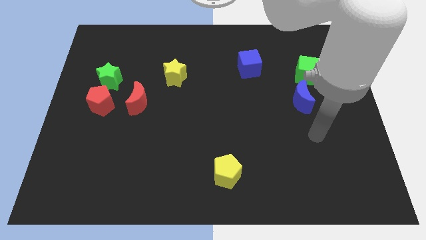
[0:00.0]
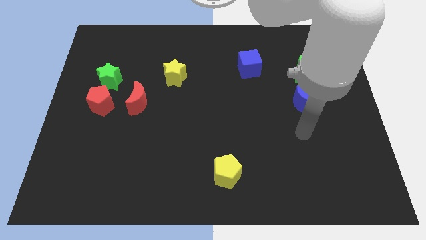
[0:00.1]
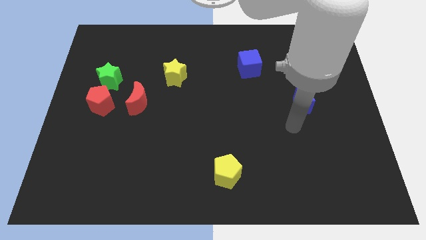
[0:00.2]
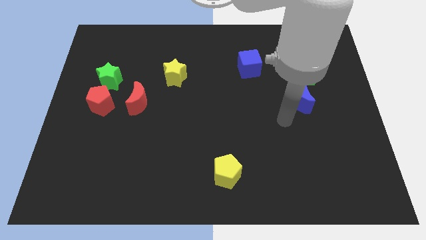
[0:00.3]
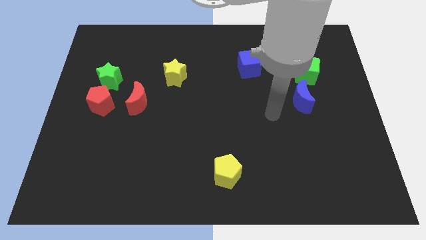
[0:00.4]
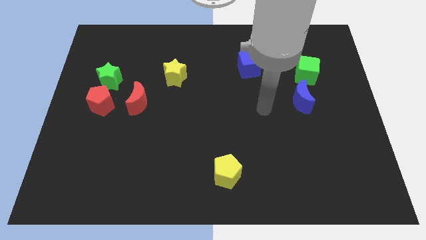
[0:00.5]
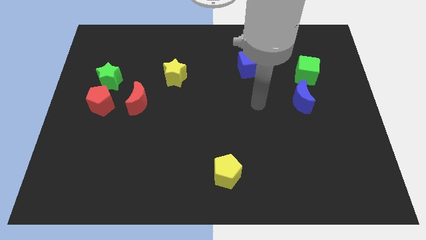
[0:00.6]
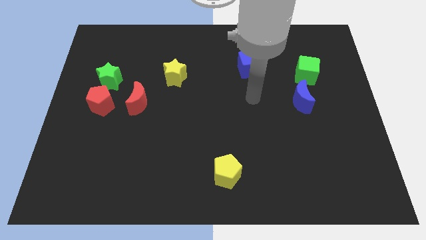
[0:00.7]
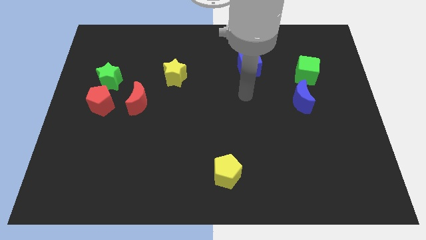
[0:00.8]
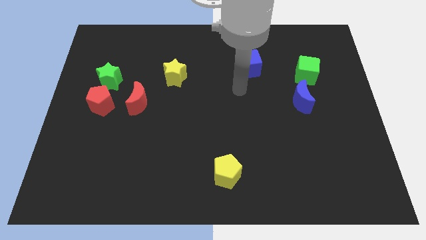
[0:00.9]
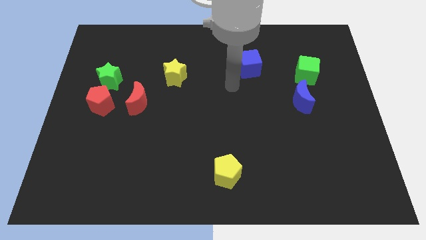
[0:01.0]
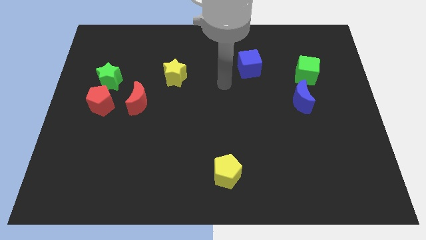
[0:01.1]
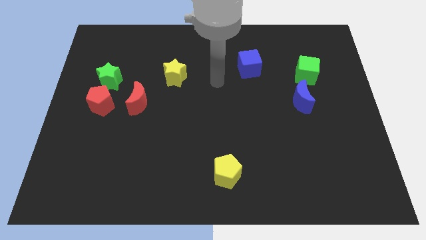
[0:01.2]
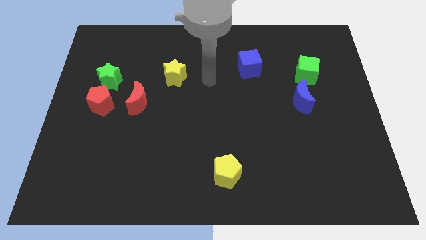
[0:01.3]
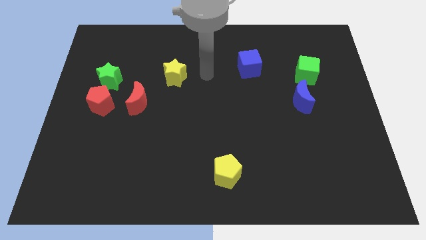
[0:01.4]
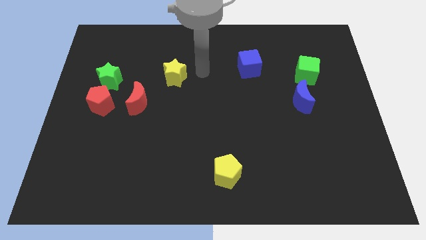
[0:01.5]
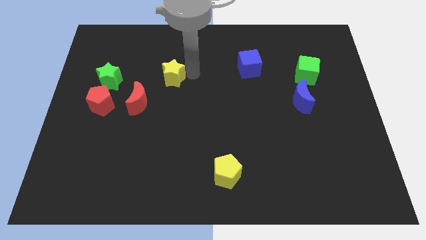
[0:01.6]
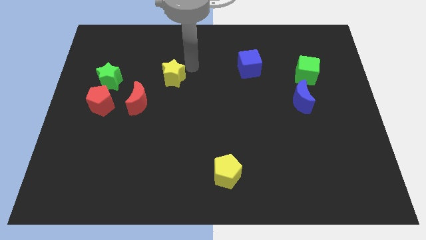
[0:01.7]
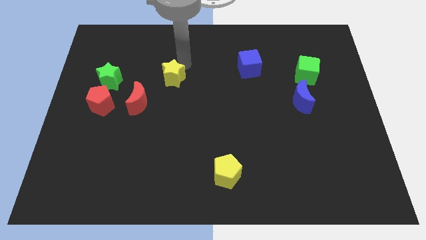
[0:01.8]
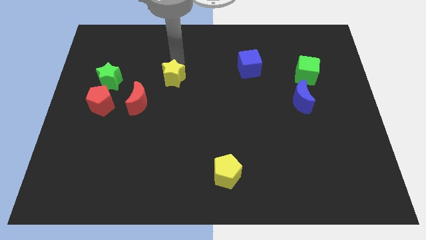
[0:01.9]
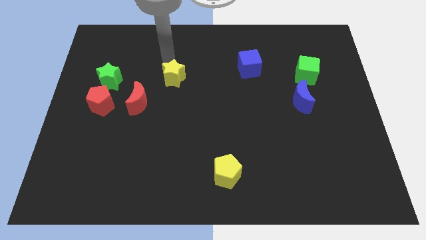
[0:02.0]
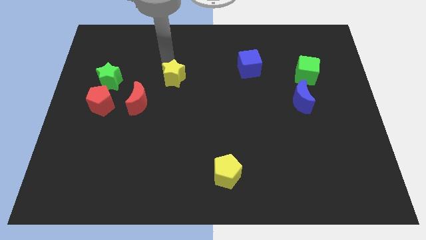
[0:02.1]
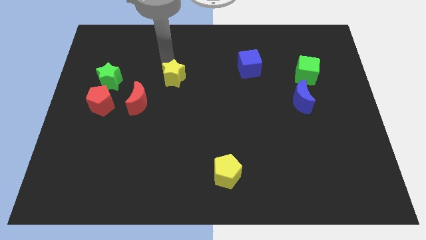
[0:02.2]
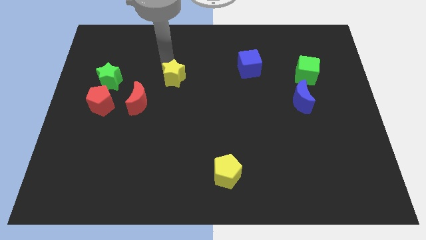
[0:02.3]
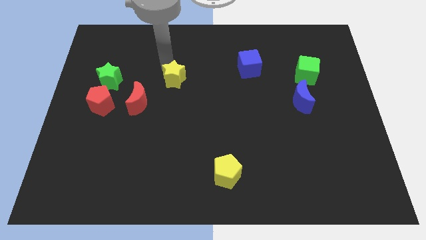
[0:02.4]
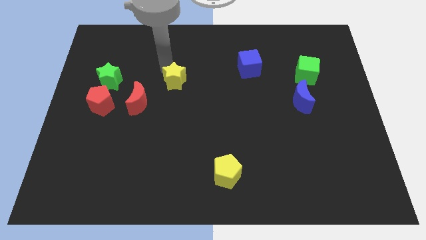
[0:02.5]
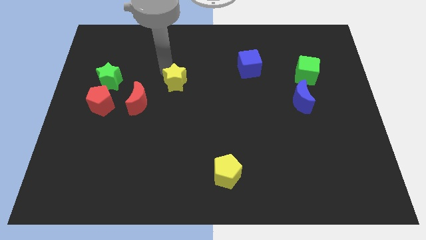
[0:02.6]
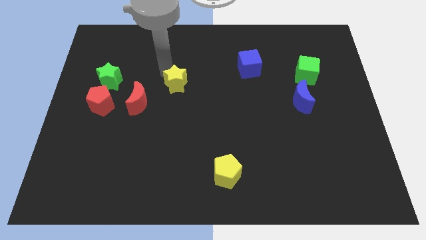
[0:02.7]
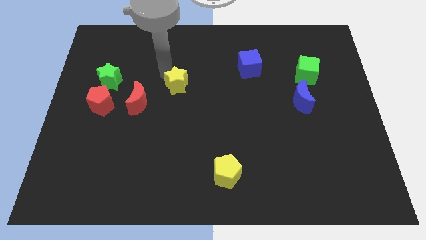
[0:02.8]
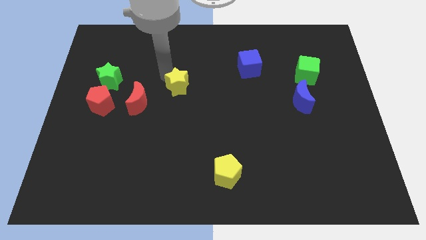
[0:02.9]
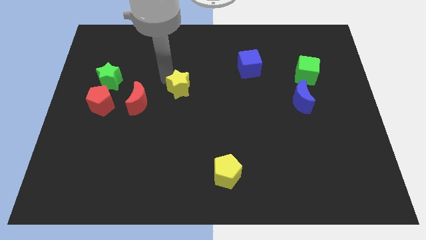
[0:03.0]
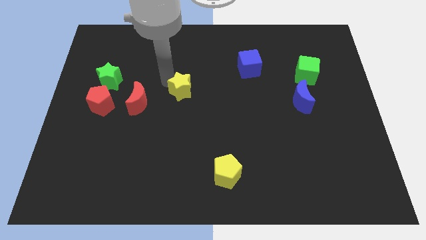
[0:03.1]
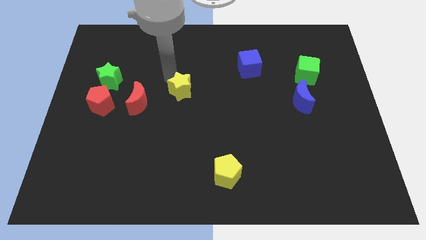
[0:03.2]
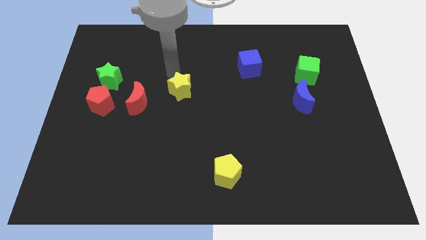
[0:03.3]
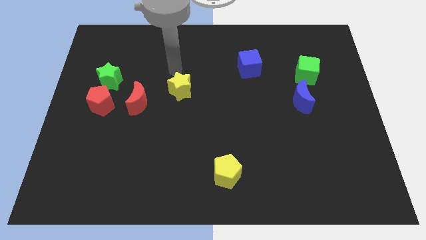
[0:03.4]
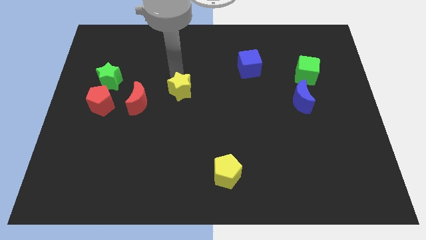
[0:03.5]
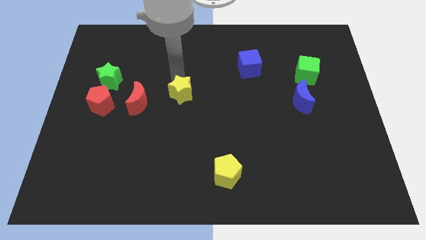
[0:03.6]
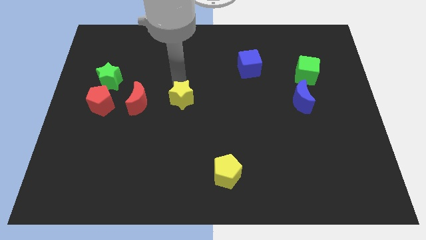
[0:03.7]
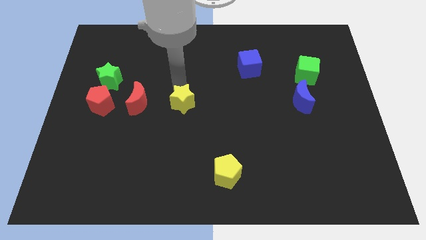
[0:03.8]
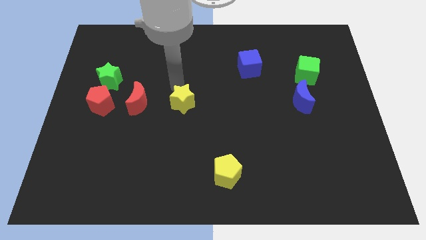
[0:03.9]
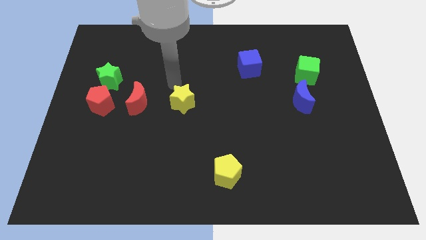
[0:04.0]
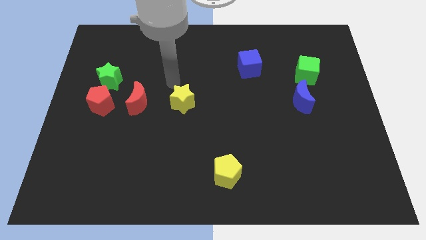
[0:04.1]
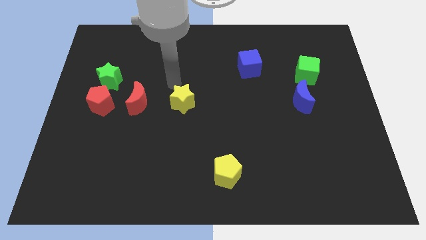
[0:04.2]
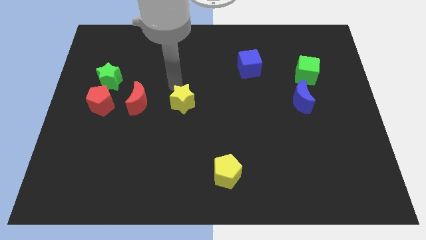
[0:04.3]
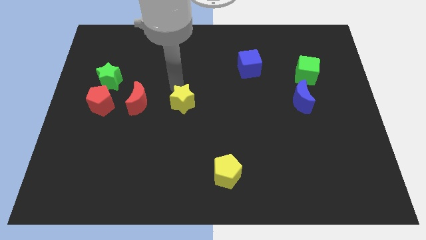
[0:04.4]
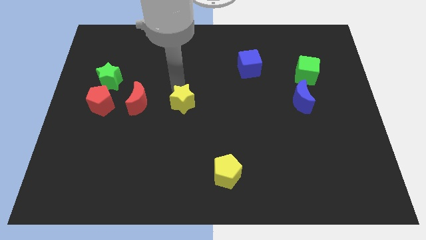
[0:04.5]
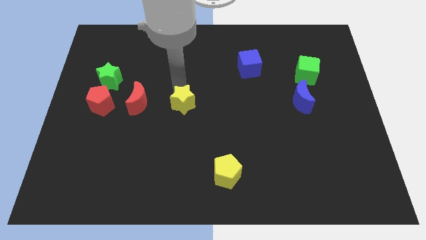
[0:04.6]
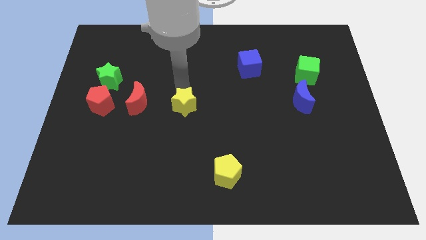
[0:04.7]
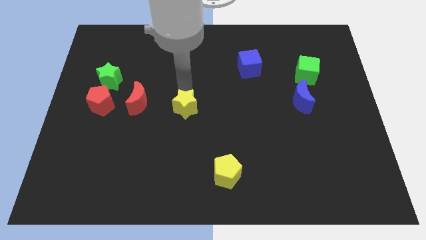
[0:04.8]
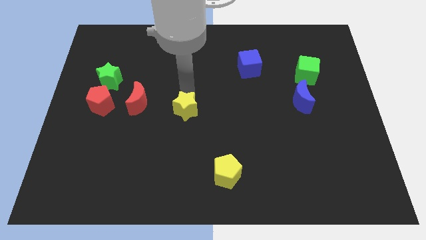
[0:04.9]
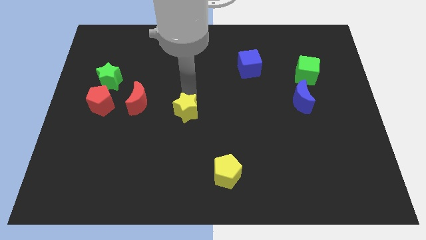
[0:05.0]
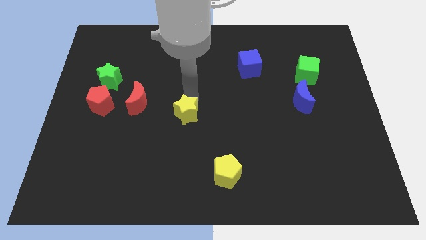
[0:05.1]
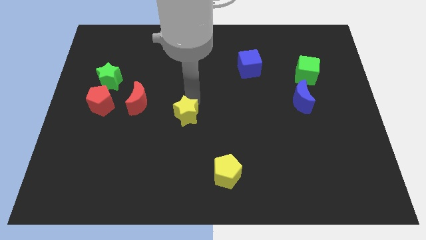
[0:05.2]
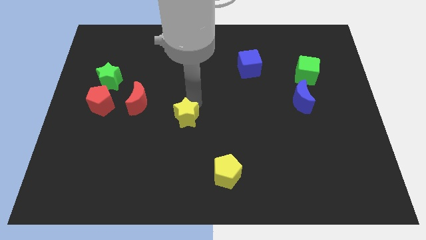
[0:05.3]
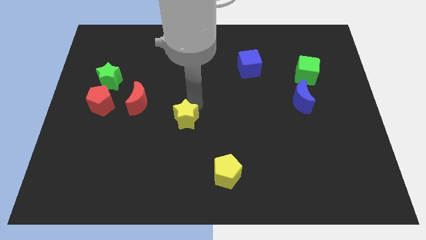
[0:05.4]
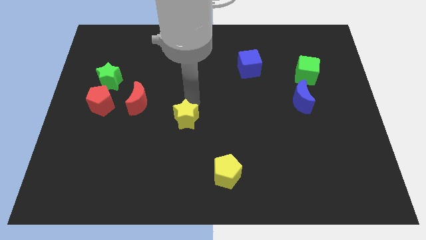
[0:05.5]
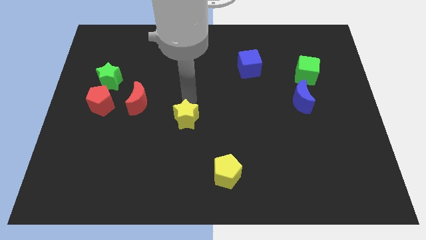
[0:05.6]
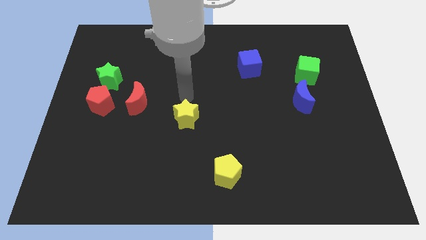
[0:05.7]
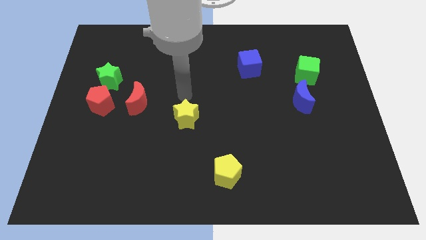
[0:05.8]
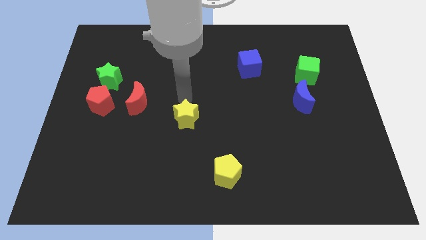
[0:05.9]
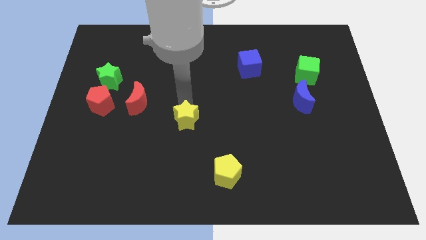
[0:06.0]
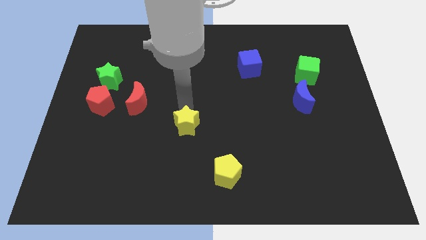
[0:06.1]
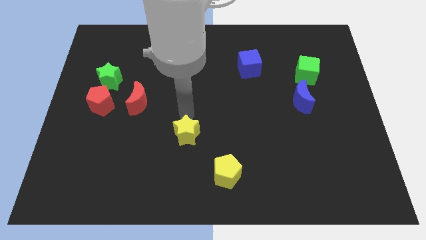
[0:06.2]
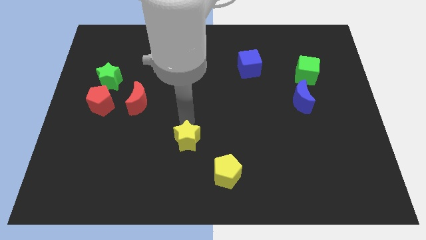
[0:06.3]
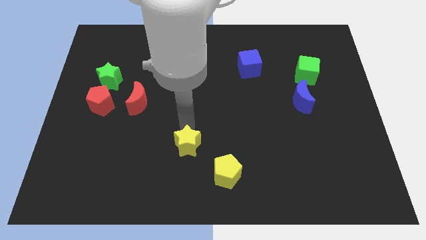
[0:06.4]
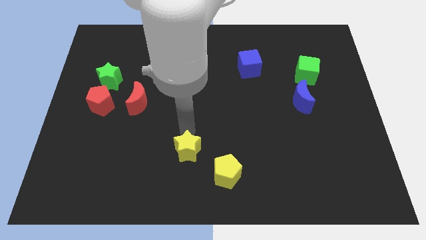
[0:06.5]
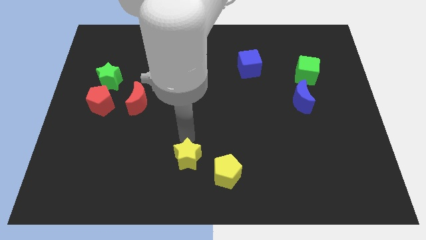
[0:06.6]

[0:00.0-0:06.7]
move the yellow star to the bottom

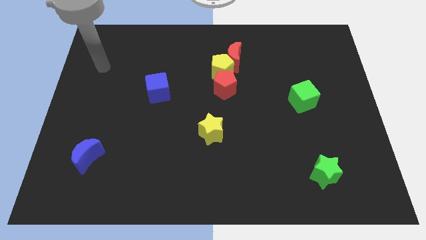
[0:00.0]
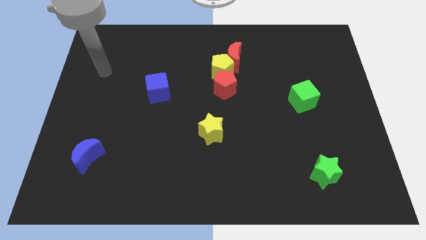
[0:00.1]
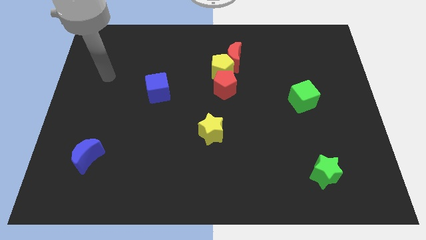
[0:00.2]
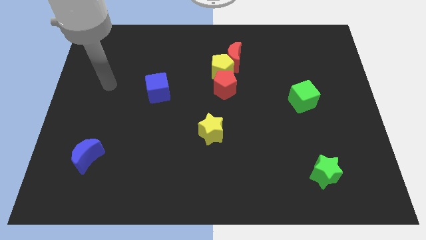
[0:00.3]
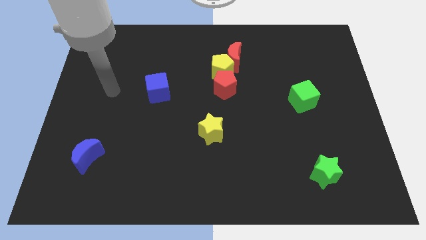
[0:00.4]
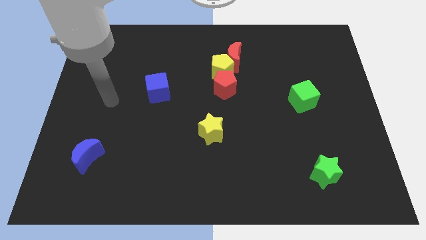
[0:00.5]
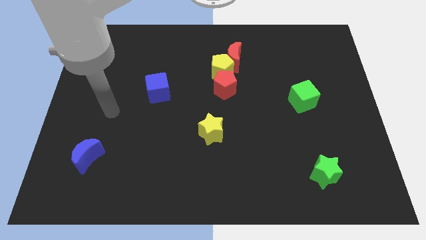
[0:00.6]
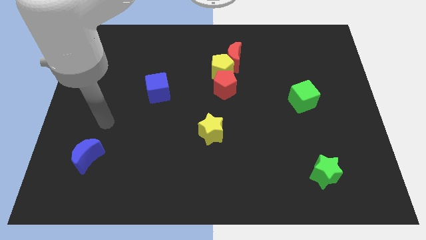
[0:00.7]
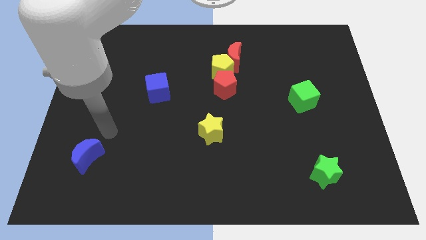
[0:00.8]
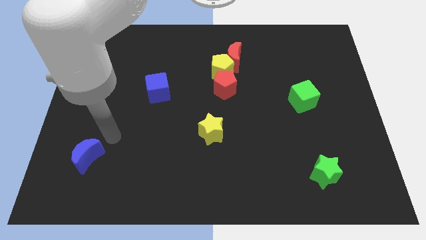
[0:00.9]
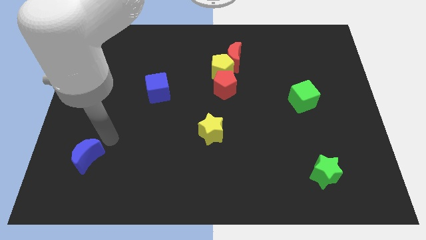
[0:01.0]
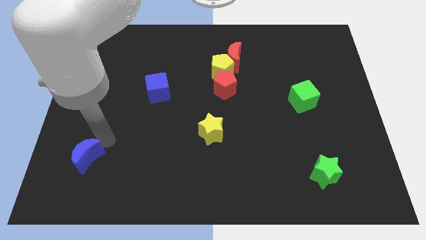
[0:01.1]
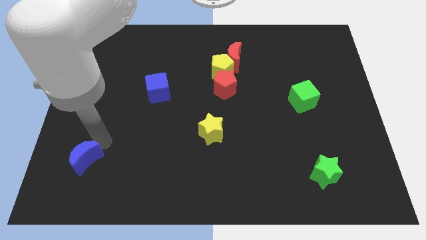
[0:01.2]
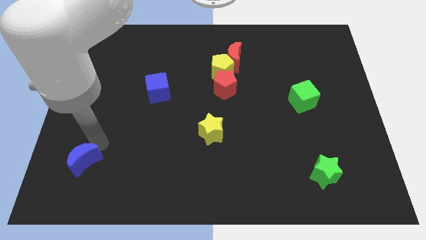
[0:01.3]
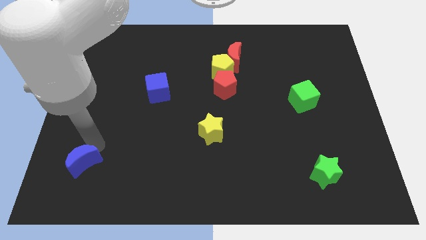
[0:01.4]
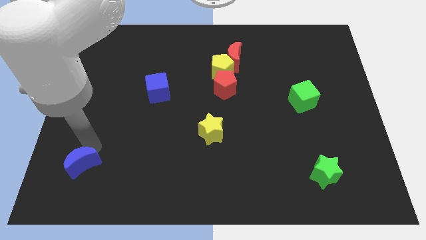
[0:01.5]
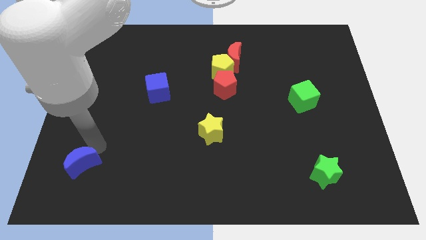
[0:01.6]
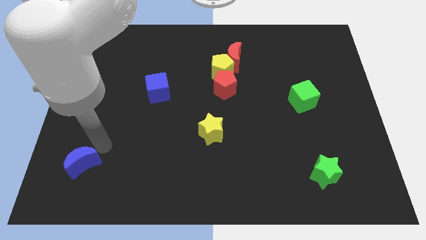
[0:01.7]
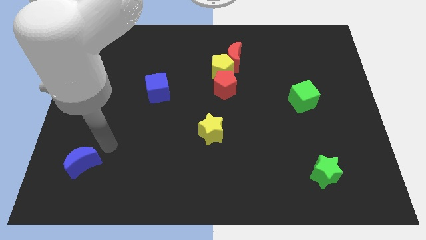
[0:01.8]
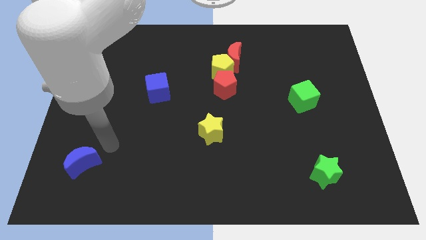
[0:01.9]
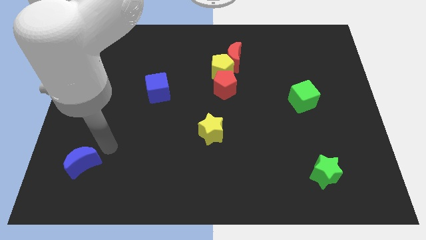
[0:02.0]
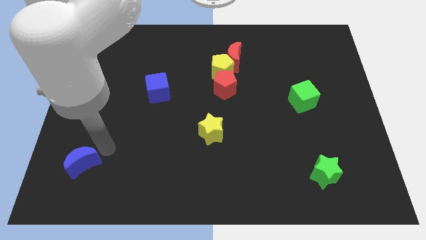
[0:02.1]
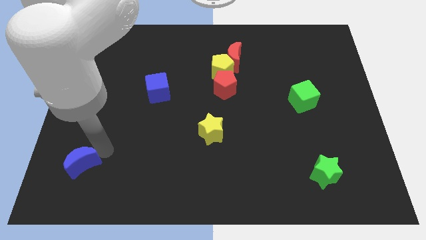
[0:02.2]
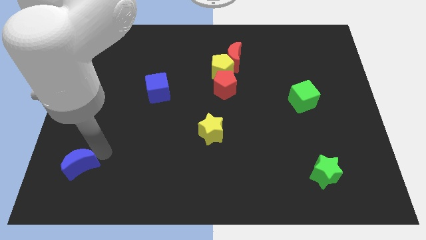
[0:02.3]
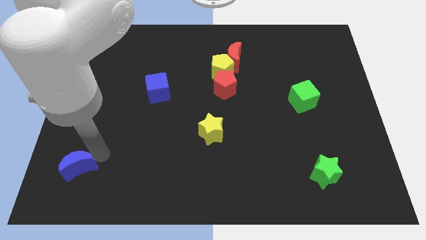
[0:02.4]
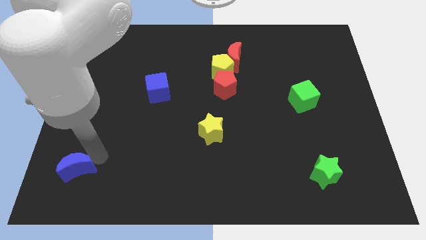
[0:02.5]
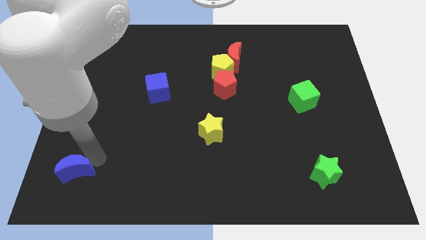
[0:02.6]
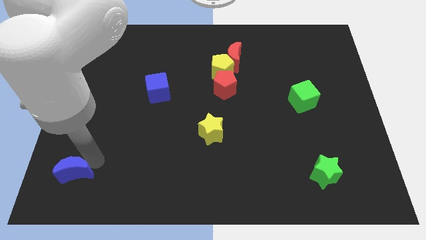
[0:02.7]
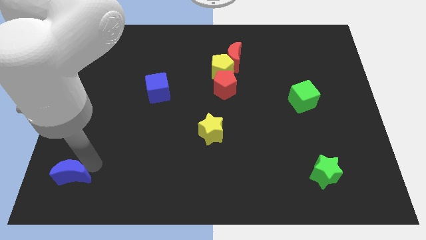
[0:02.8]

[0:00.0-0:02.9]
push the blue moon to the lower left corner
